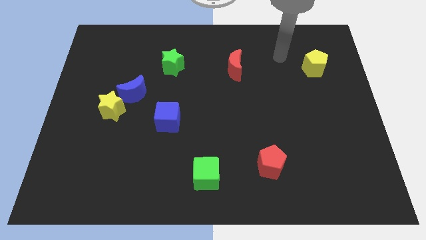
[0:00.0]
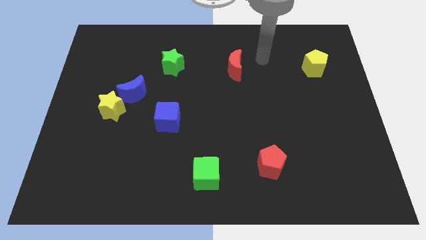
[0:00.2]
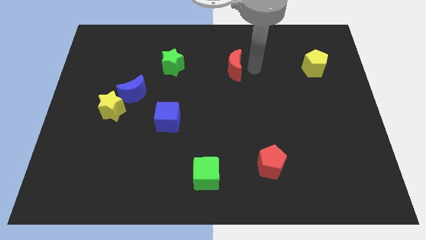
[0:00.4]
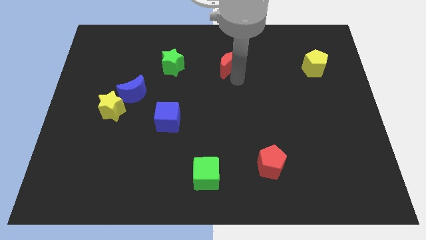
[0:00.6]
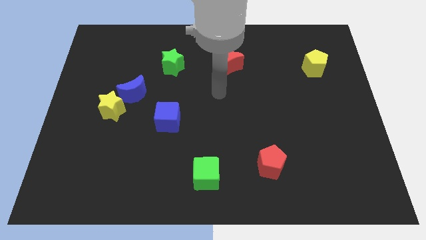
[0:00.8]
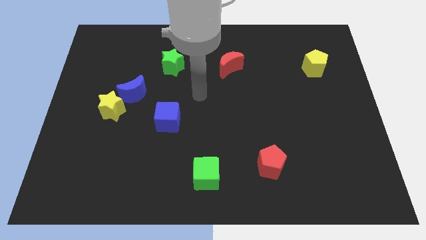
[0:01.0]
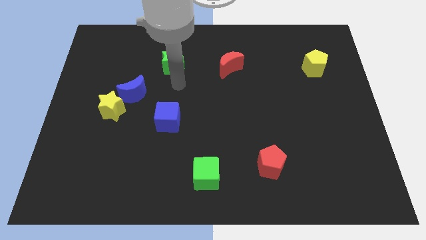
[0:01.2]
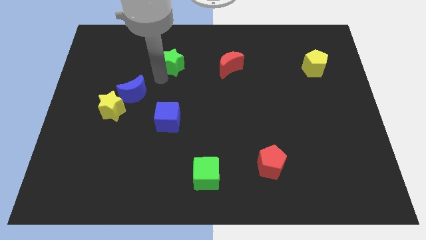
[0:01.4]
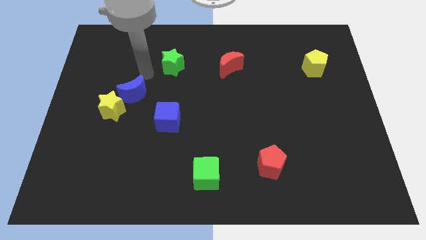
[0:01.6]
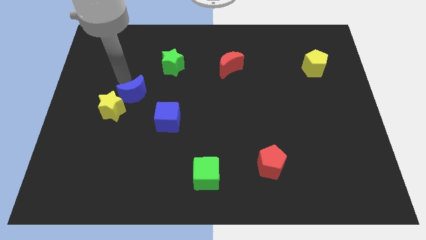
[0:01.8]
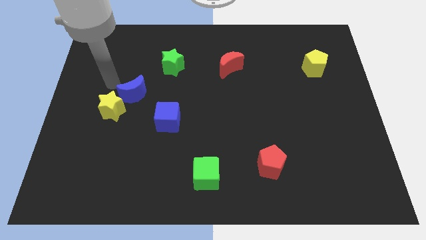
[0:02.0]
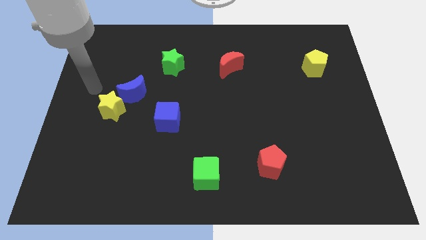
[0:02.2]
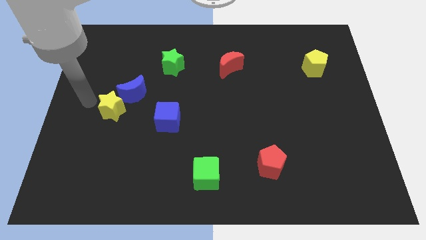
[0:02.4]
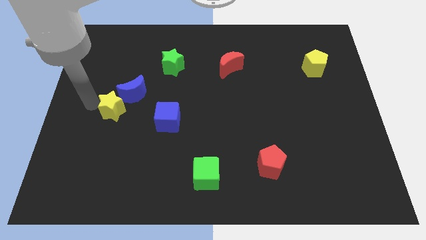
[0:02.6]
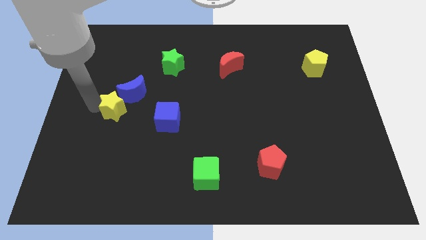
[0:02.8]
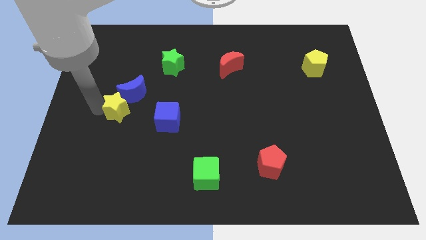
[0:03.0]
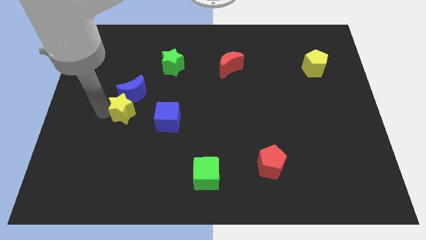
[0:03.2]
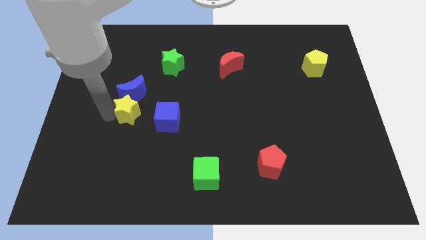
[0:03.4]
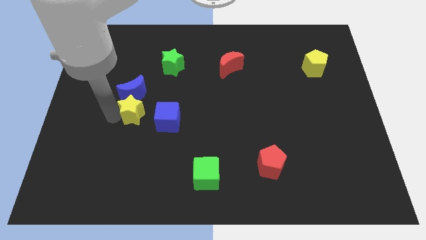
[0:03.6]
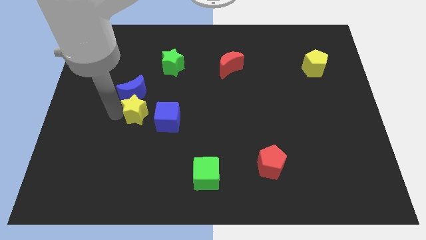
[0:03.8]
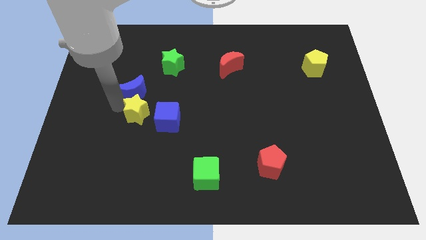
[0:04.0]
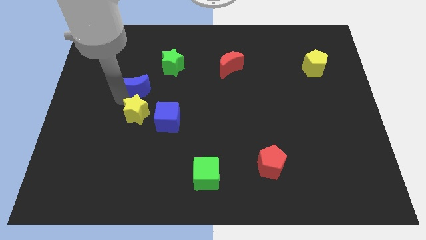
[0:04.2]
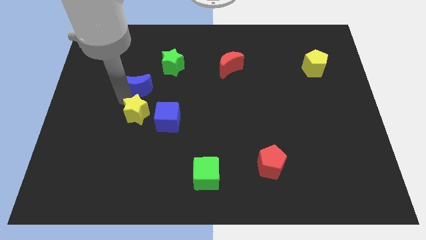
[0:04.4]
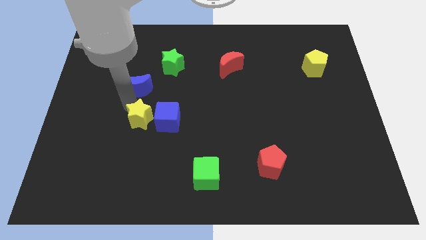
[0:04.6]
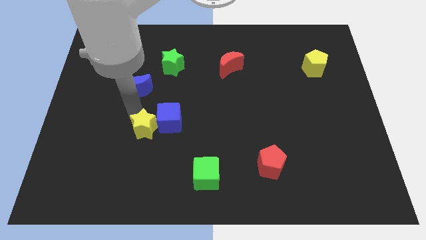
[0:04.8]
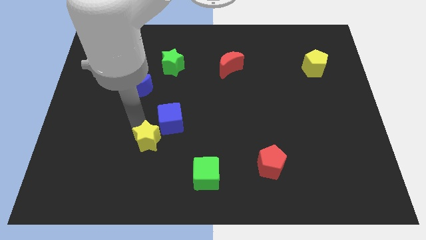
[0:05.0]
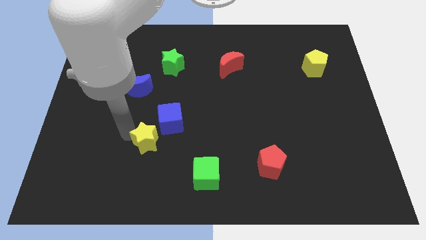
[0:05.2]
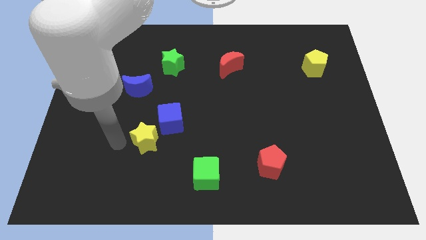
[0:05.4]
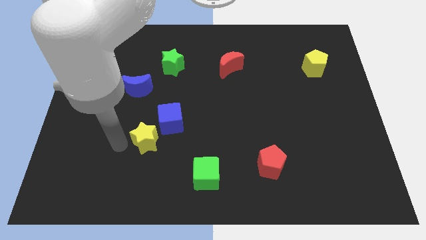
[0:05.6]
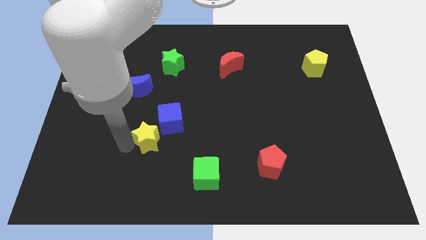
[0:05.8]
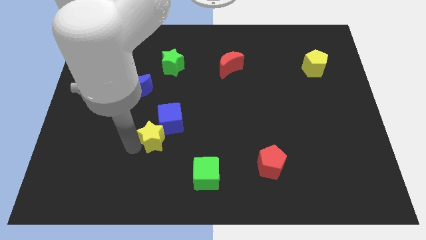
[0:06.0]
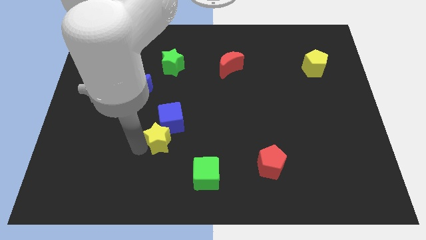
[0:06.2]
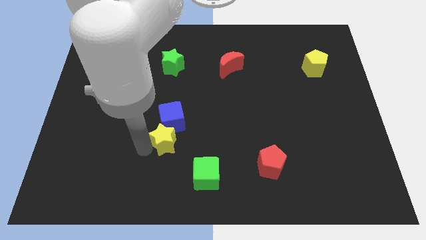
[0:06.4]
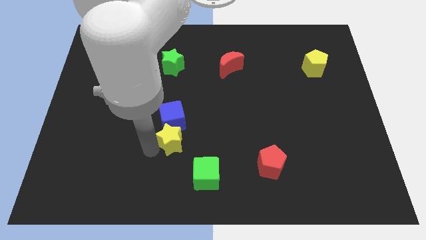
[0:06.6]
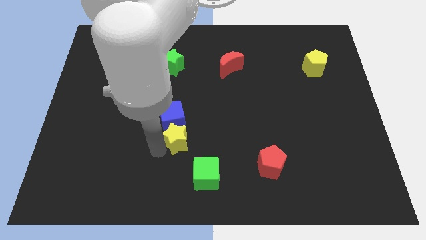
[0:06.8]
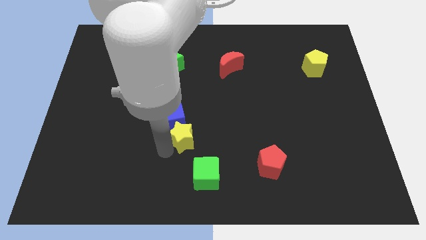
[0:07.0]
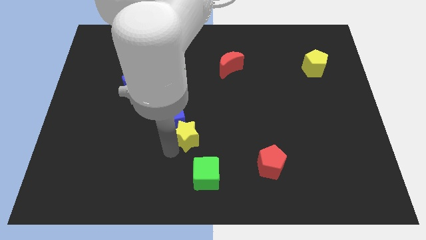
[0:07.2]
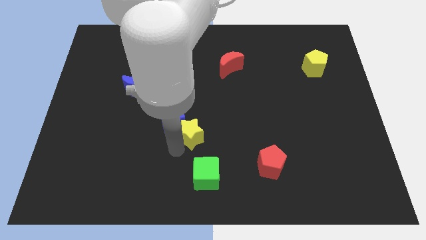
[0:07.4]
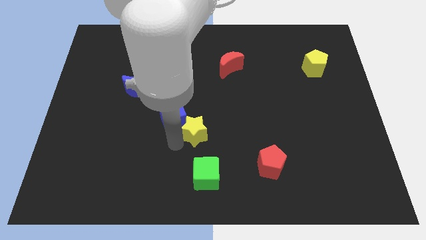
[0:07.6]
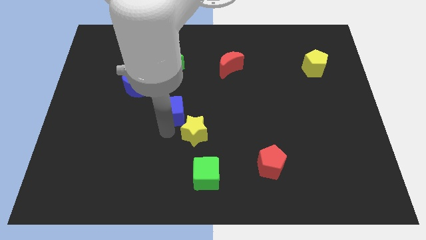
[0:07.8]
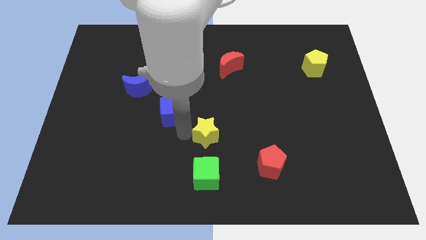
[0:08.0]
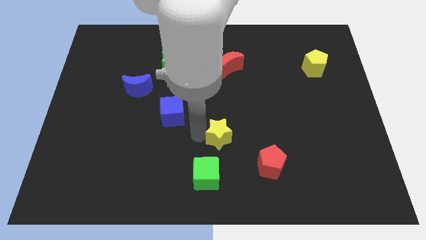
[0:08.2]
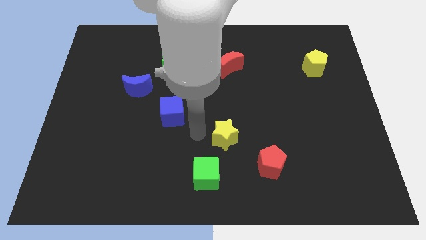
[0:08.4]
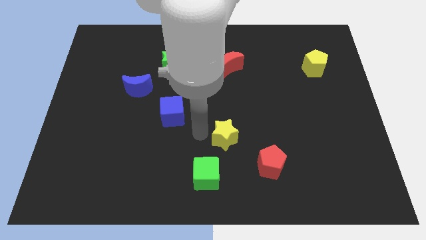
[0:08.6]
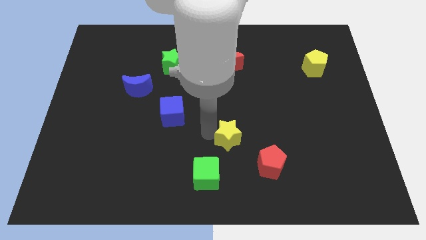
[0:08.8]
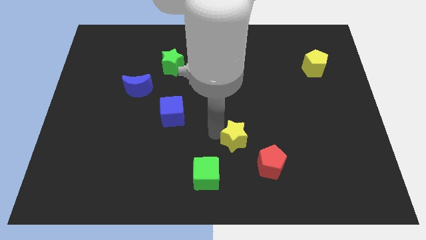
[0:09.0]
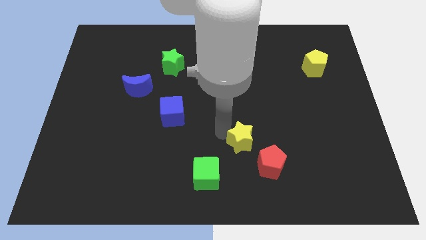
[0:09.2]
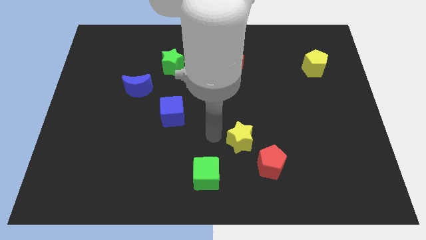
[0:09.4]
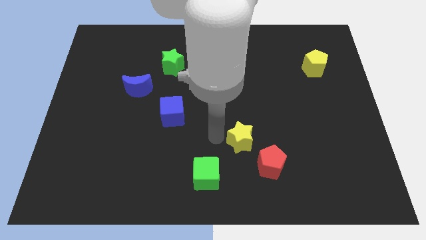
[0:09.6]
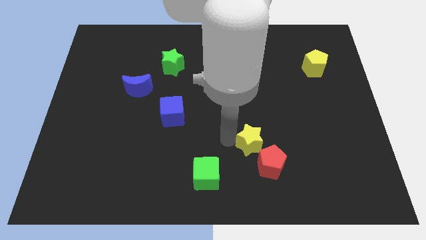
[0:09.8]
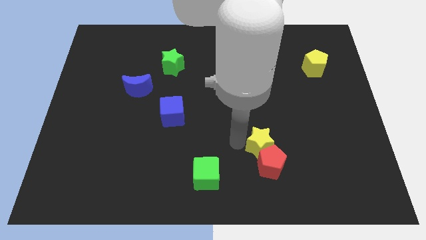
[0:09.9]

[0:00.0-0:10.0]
push the yellow star diagonally up and to the right of the red pentagon

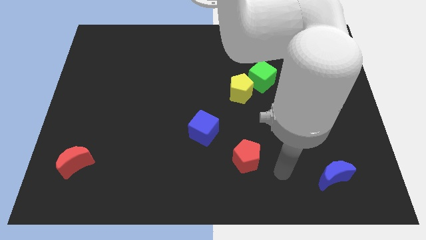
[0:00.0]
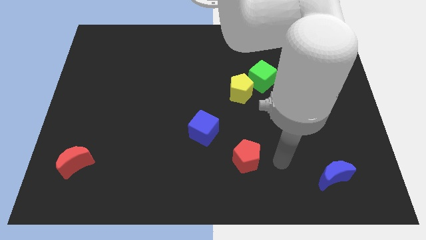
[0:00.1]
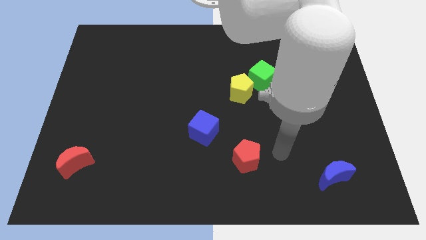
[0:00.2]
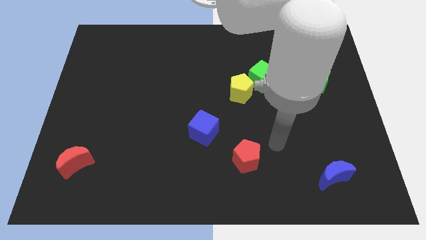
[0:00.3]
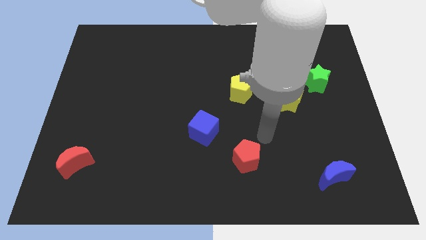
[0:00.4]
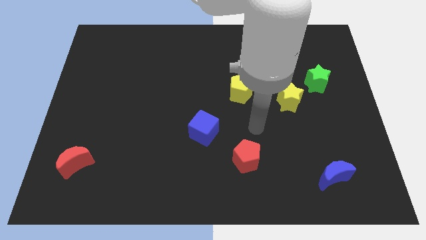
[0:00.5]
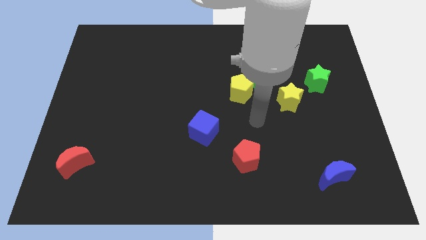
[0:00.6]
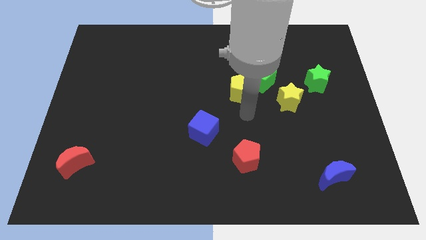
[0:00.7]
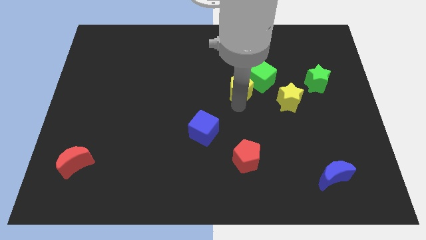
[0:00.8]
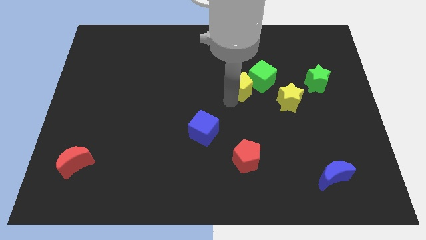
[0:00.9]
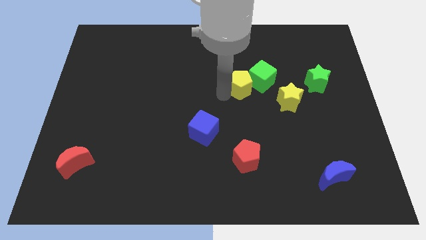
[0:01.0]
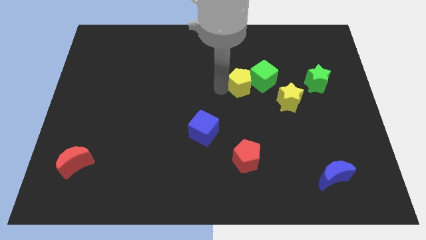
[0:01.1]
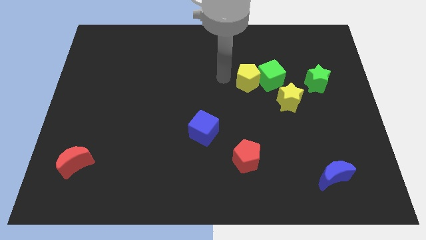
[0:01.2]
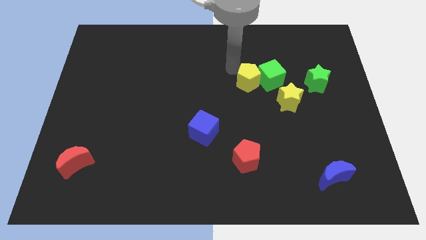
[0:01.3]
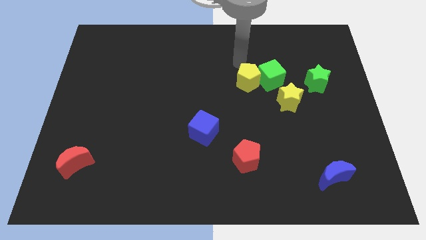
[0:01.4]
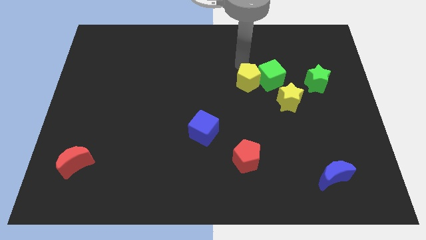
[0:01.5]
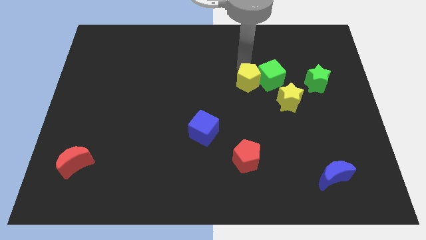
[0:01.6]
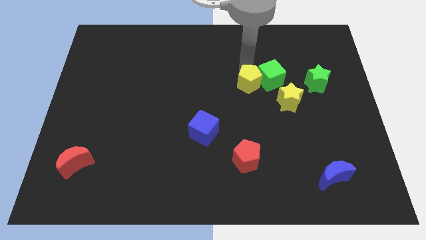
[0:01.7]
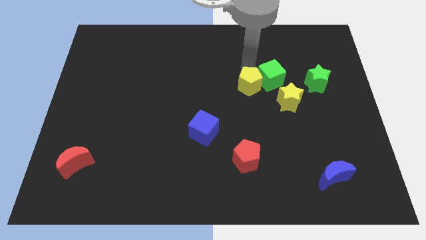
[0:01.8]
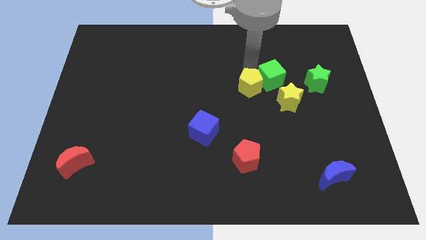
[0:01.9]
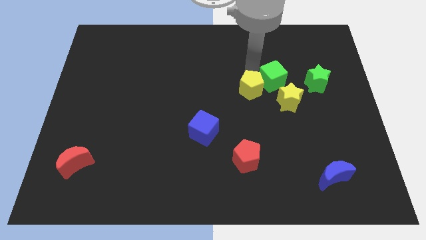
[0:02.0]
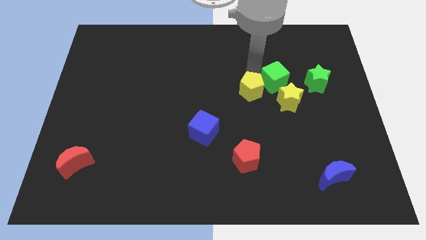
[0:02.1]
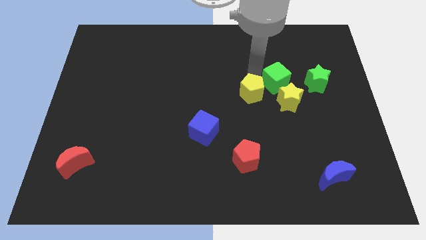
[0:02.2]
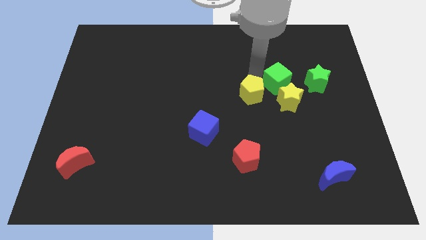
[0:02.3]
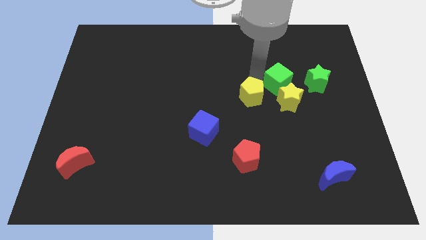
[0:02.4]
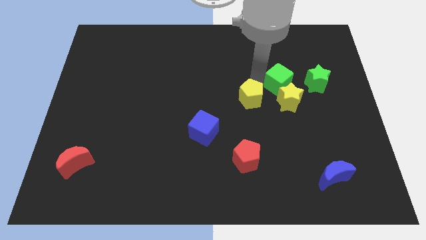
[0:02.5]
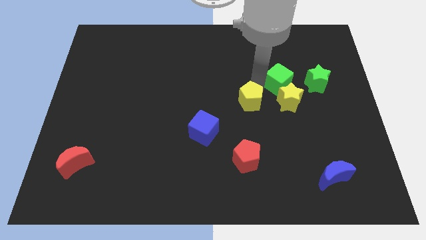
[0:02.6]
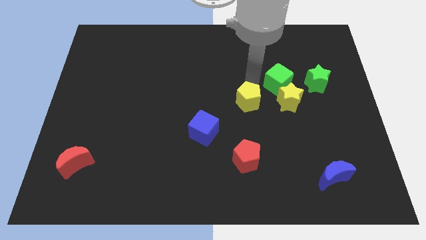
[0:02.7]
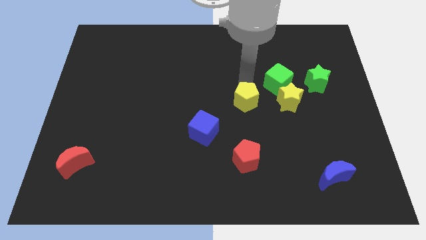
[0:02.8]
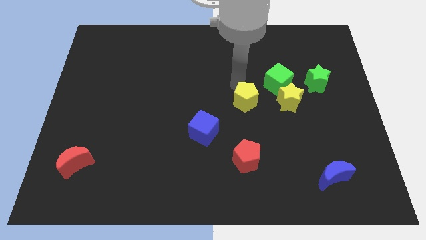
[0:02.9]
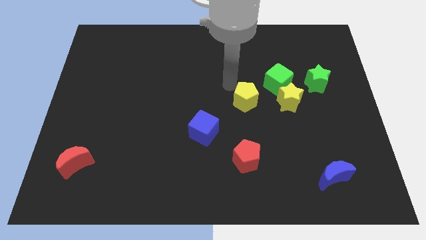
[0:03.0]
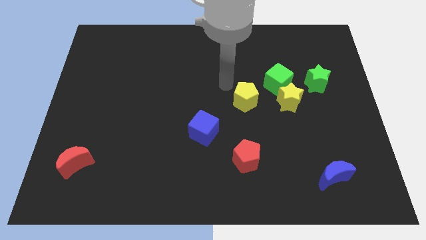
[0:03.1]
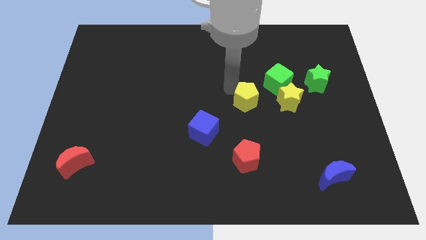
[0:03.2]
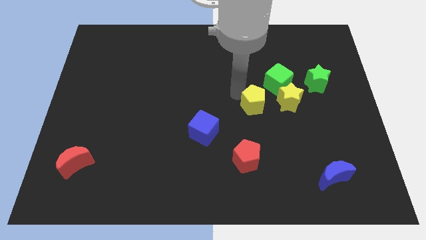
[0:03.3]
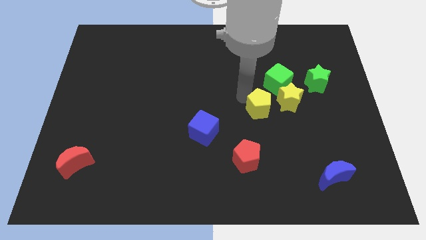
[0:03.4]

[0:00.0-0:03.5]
move the yellow pentagon diagonally down and to the left of the yellow star
